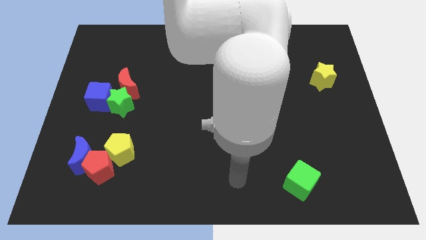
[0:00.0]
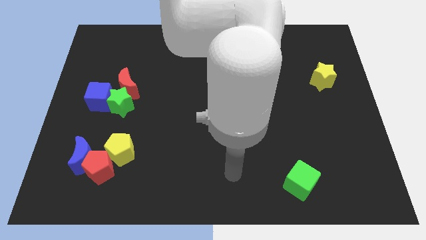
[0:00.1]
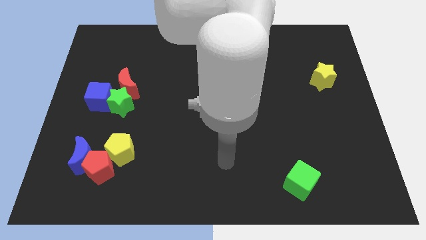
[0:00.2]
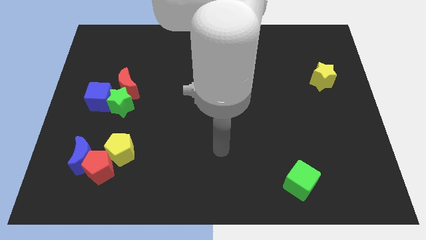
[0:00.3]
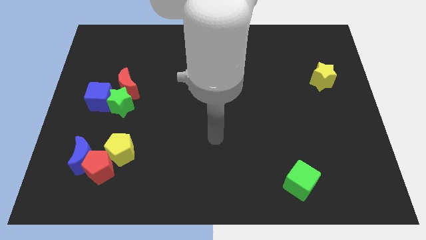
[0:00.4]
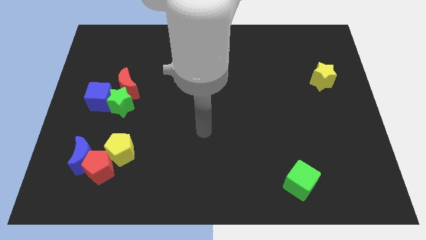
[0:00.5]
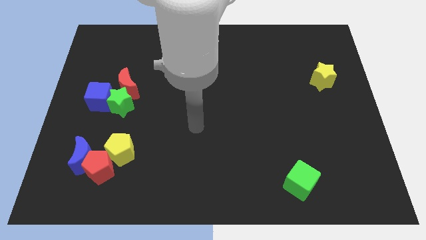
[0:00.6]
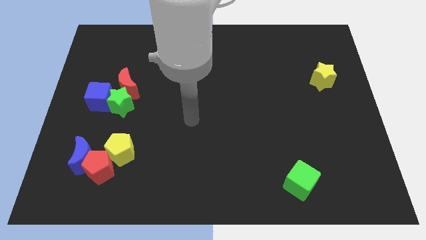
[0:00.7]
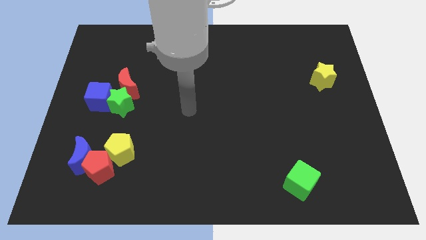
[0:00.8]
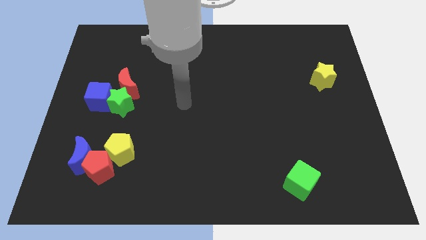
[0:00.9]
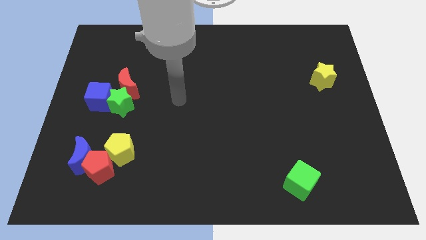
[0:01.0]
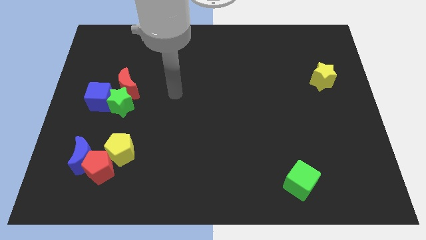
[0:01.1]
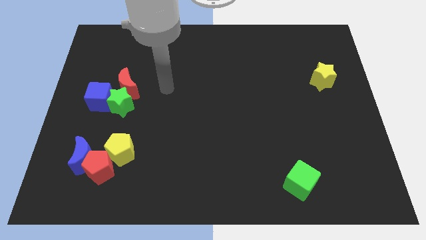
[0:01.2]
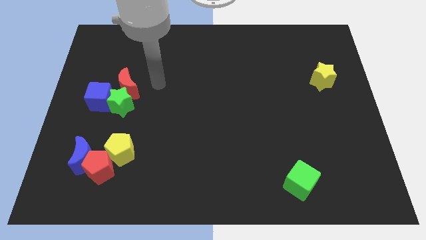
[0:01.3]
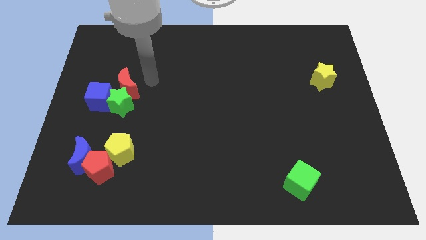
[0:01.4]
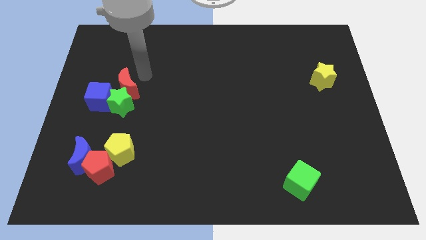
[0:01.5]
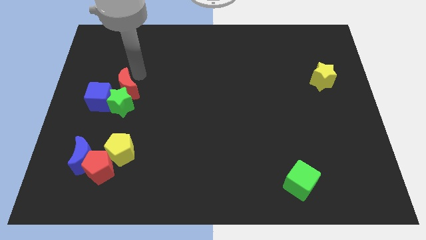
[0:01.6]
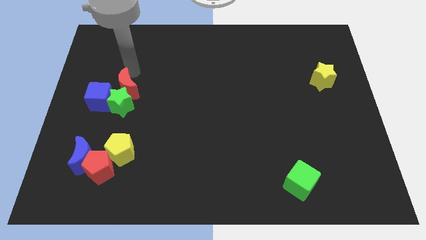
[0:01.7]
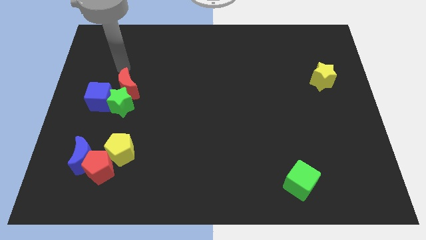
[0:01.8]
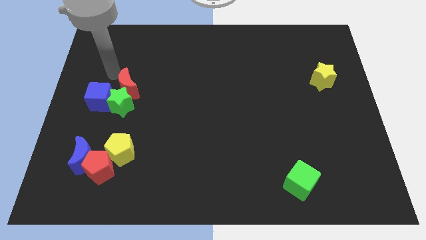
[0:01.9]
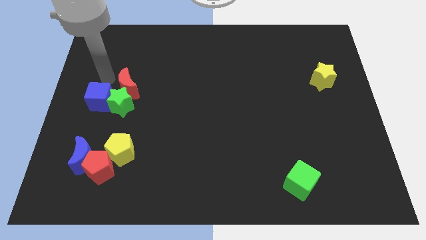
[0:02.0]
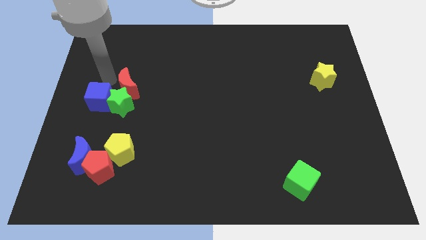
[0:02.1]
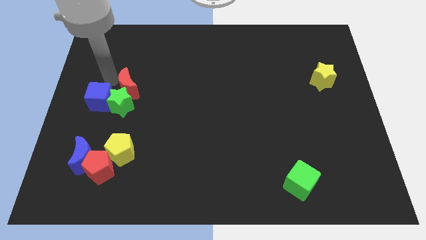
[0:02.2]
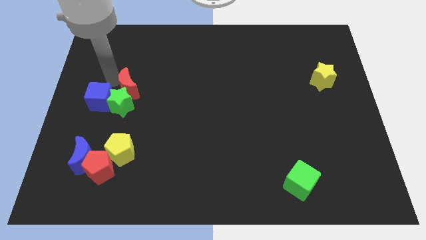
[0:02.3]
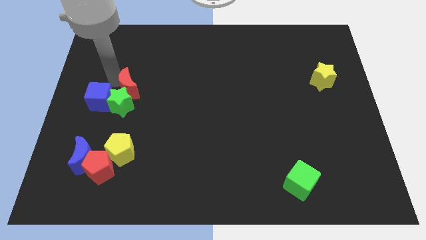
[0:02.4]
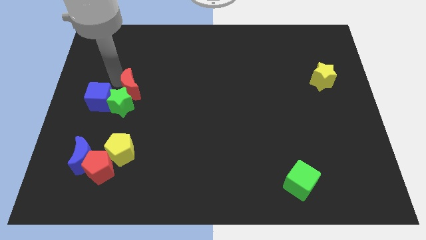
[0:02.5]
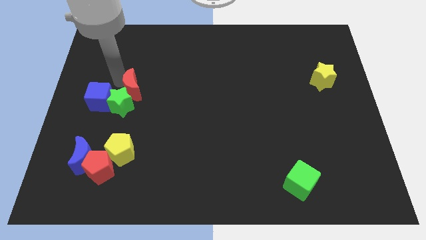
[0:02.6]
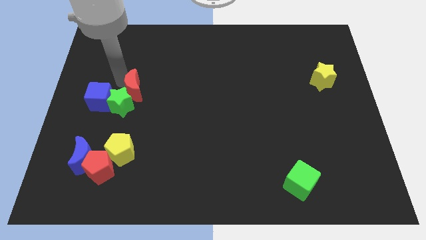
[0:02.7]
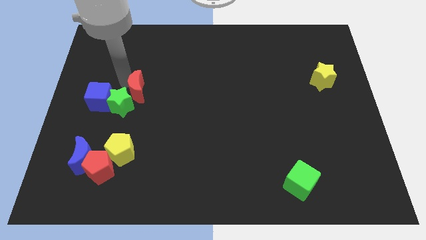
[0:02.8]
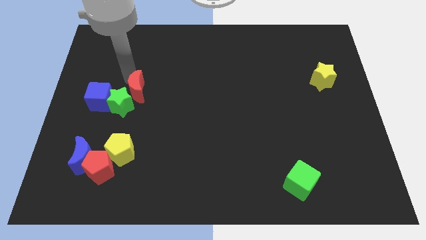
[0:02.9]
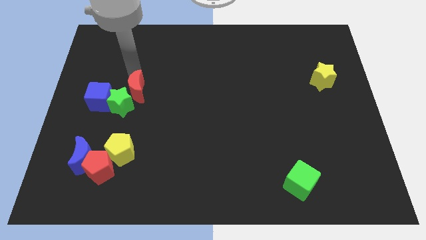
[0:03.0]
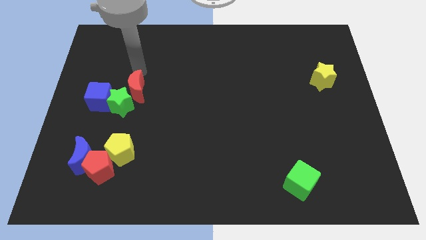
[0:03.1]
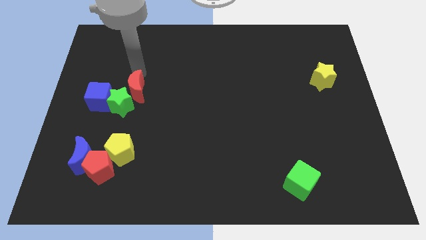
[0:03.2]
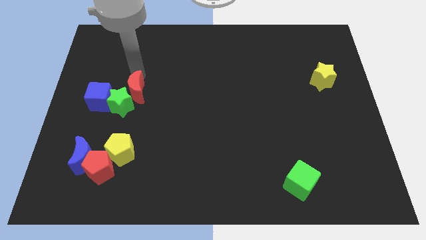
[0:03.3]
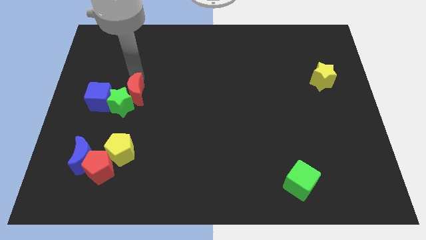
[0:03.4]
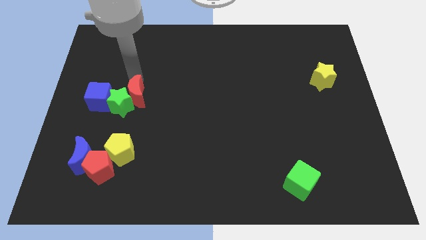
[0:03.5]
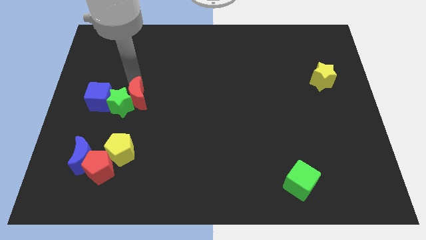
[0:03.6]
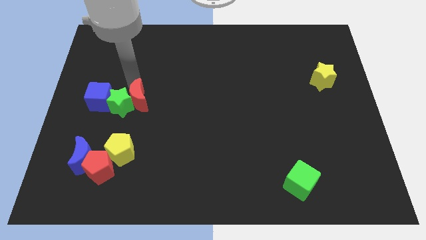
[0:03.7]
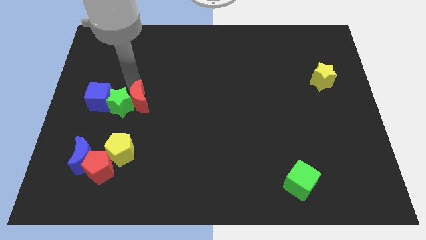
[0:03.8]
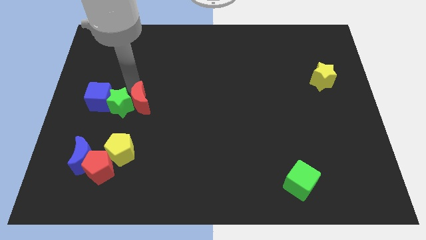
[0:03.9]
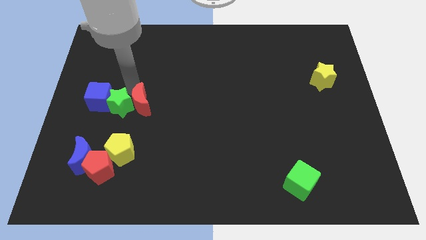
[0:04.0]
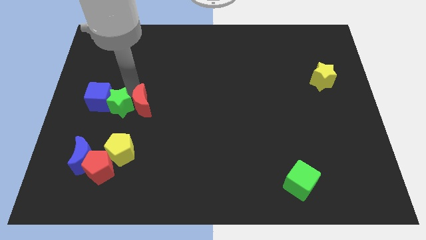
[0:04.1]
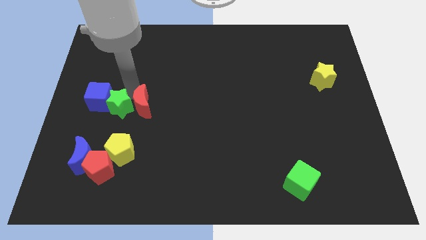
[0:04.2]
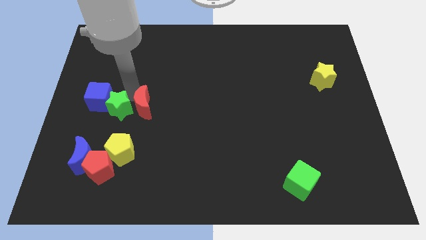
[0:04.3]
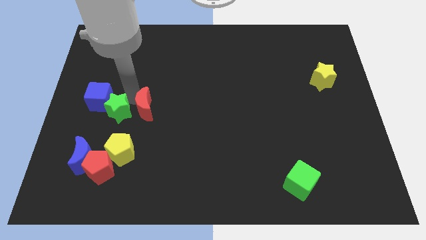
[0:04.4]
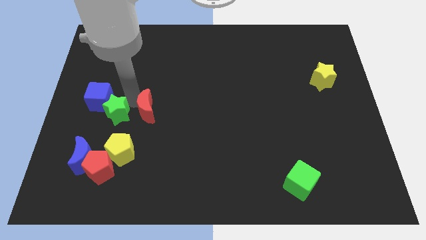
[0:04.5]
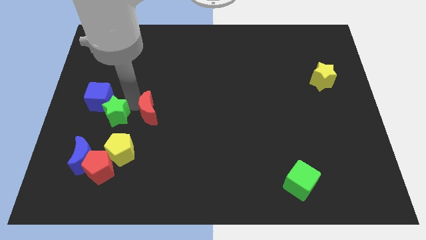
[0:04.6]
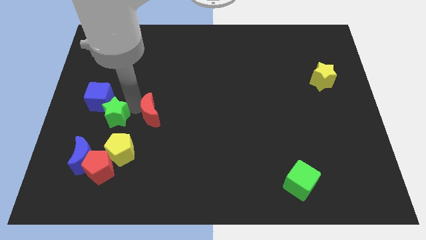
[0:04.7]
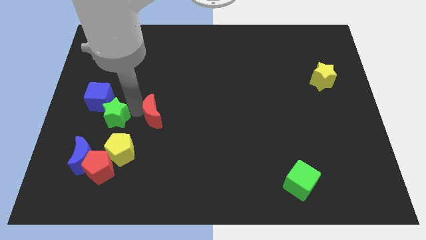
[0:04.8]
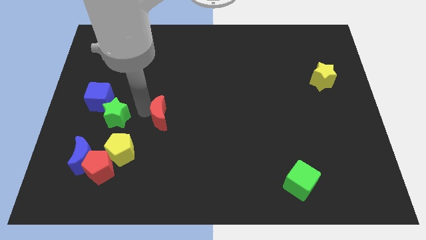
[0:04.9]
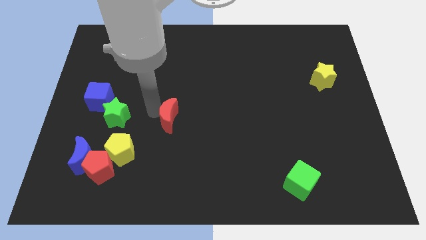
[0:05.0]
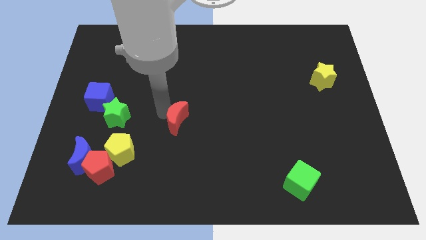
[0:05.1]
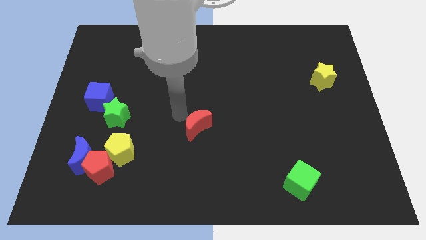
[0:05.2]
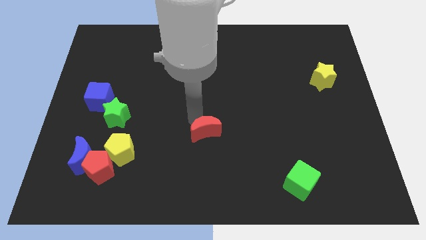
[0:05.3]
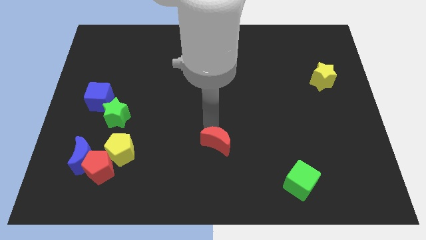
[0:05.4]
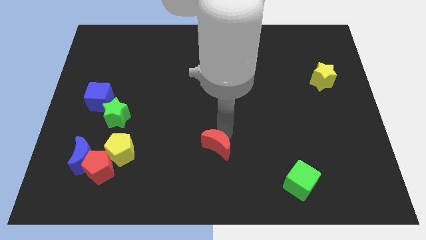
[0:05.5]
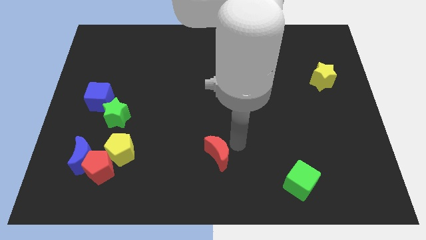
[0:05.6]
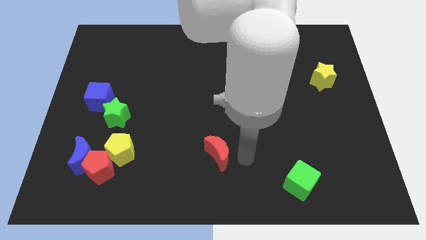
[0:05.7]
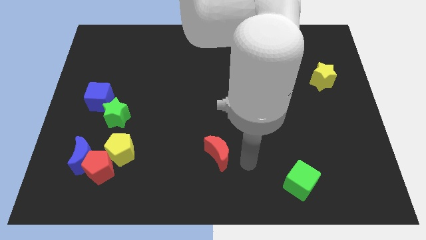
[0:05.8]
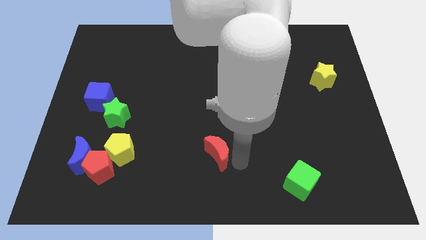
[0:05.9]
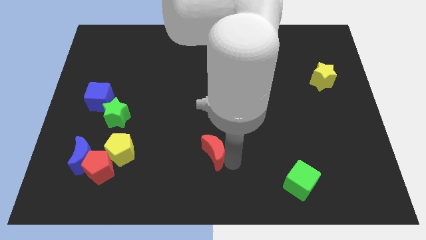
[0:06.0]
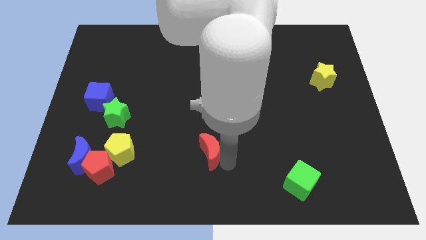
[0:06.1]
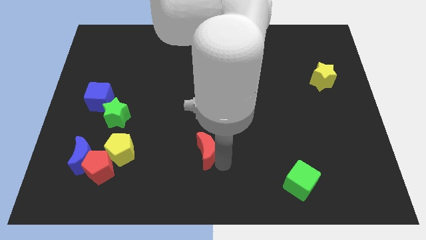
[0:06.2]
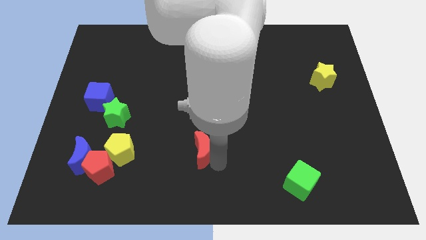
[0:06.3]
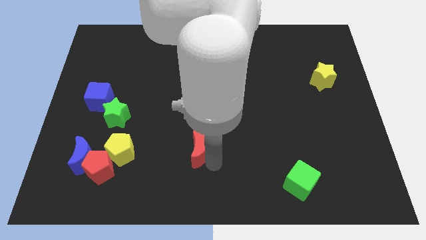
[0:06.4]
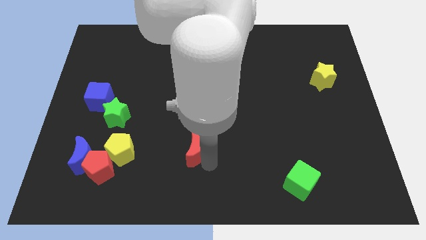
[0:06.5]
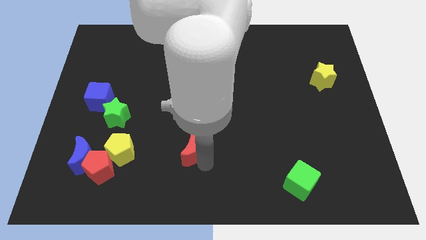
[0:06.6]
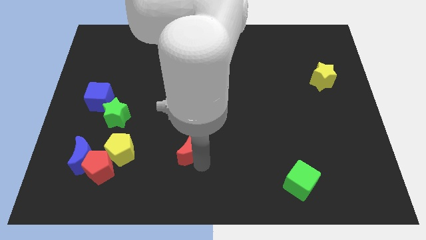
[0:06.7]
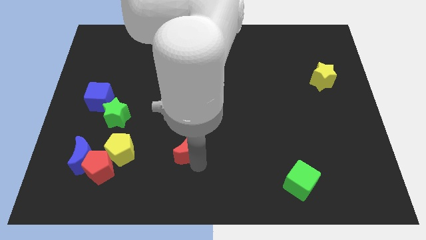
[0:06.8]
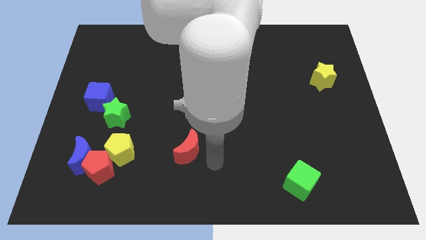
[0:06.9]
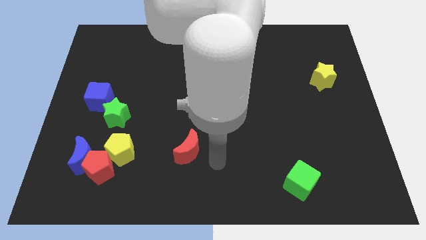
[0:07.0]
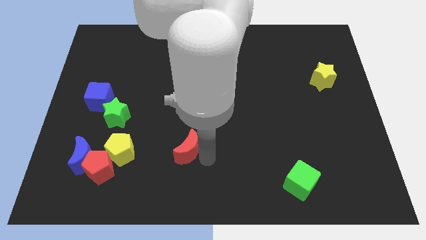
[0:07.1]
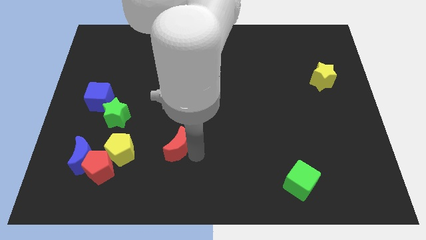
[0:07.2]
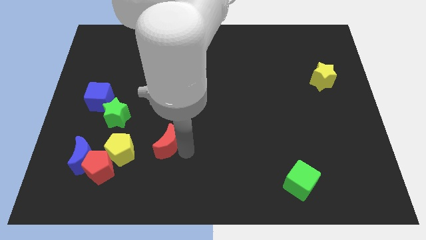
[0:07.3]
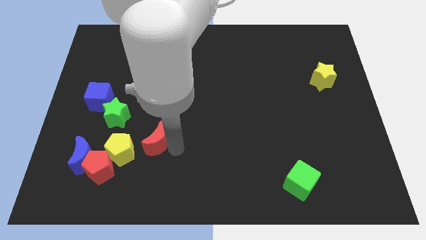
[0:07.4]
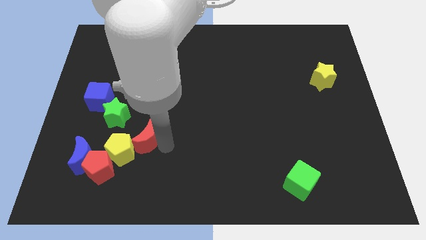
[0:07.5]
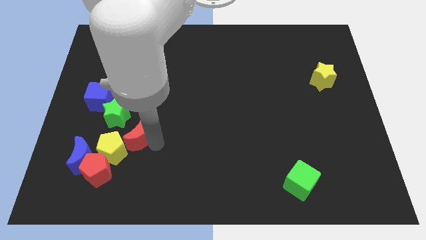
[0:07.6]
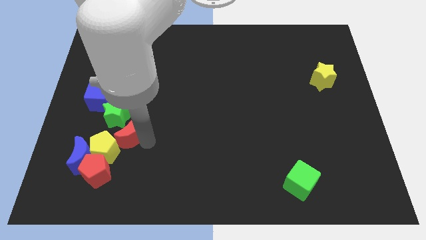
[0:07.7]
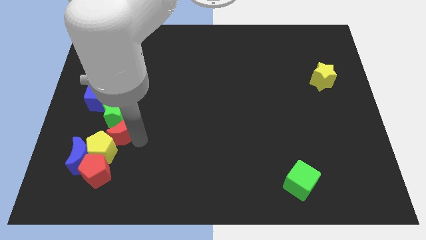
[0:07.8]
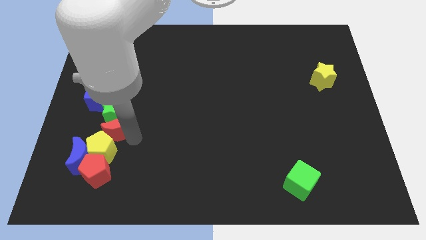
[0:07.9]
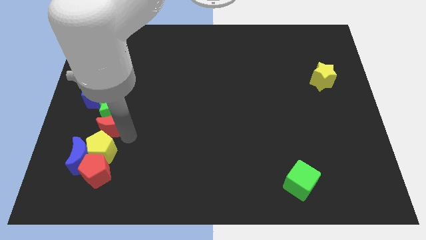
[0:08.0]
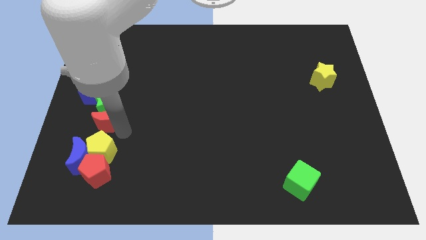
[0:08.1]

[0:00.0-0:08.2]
put the red moon to the top of the blue moon
